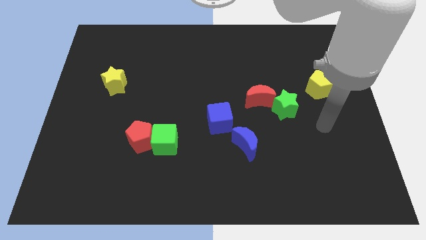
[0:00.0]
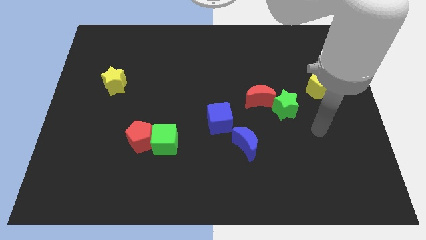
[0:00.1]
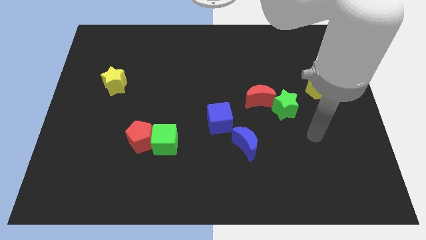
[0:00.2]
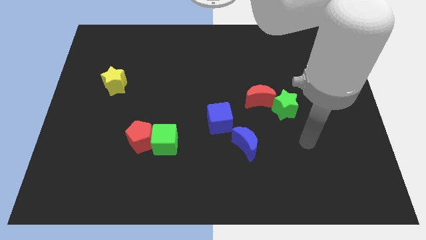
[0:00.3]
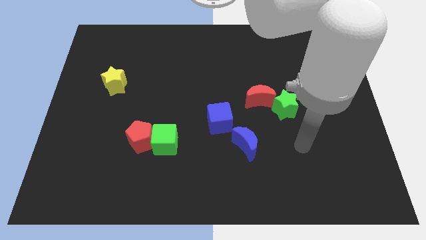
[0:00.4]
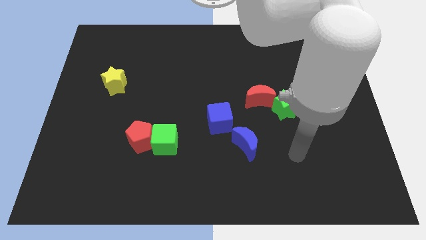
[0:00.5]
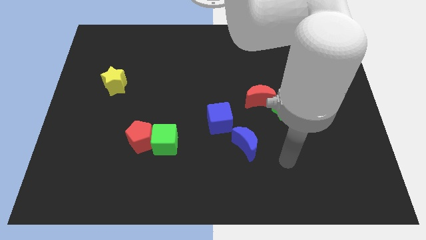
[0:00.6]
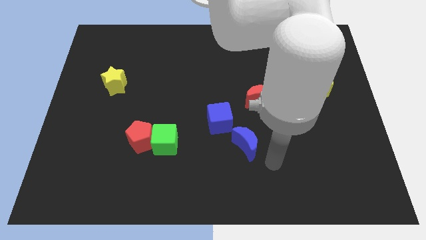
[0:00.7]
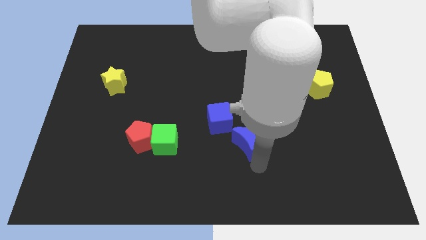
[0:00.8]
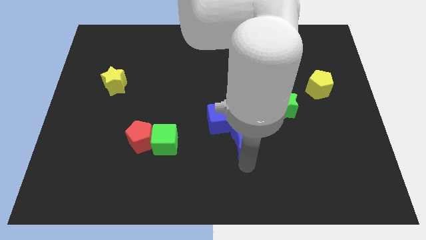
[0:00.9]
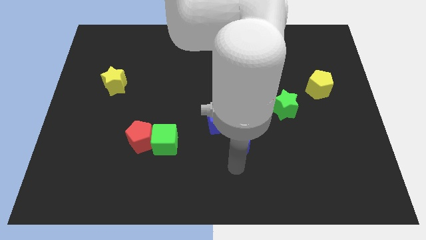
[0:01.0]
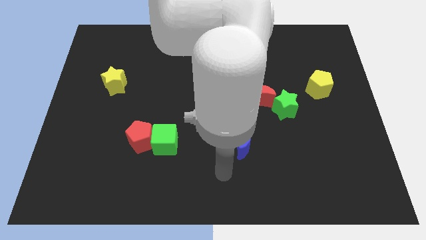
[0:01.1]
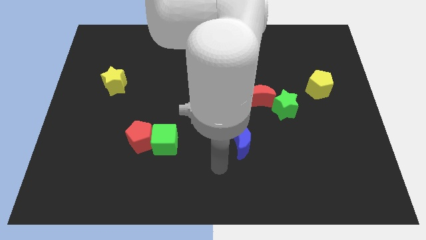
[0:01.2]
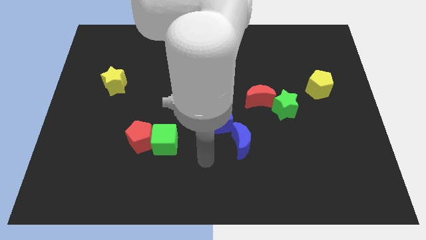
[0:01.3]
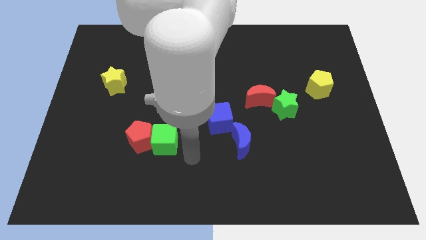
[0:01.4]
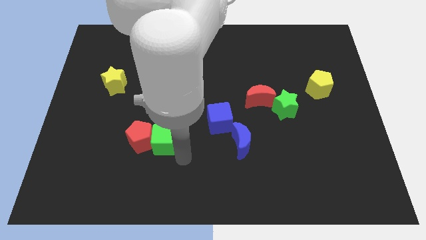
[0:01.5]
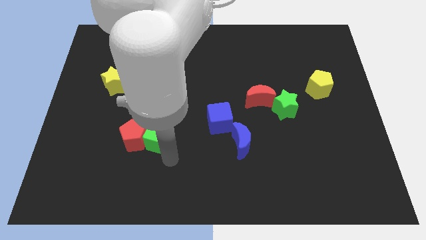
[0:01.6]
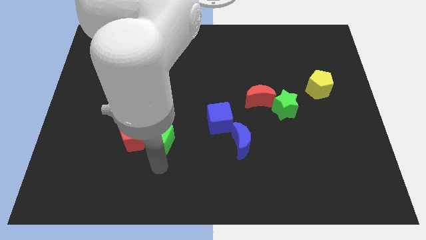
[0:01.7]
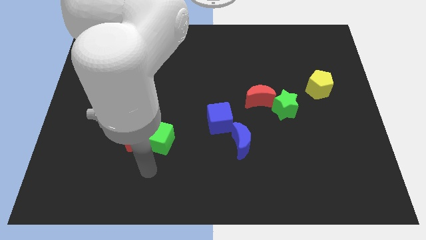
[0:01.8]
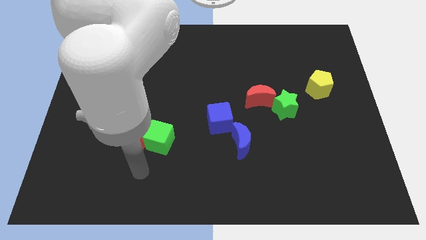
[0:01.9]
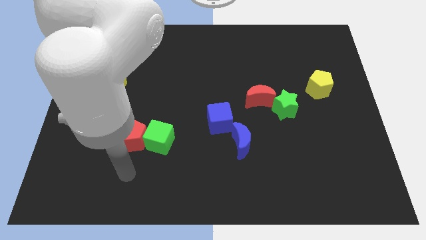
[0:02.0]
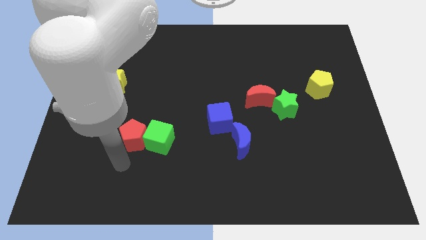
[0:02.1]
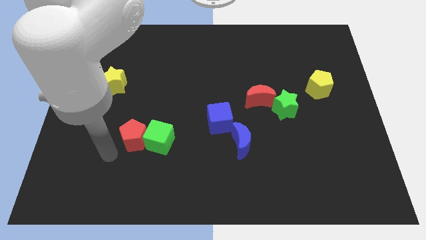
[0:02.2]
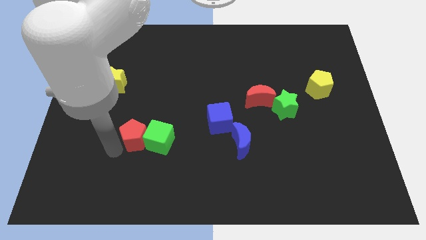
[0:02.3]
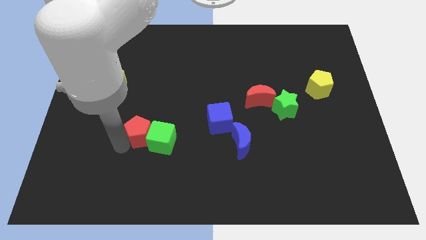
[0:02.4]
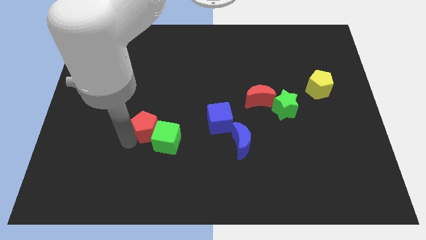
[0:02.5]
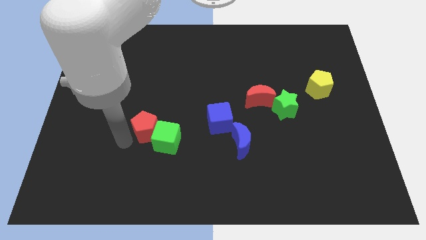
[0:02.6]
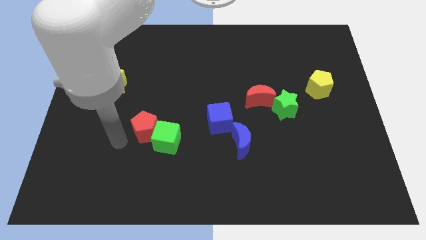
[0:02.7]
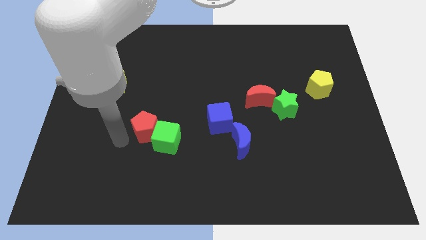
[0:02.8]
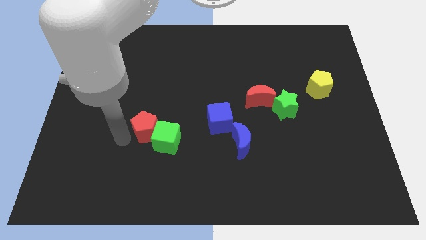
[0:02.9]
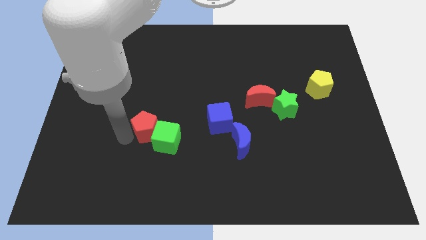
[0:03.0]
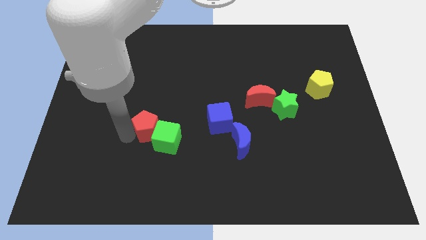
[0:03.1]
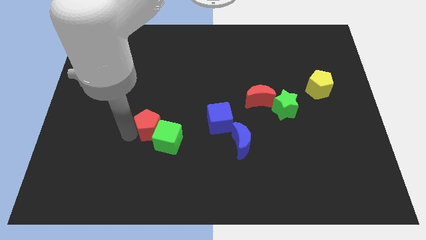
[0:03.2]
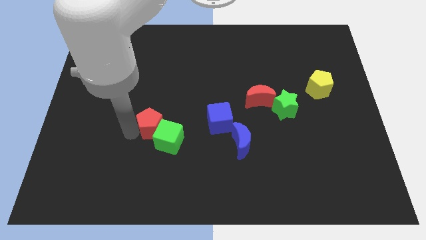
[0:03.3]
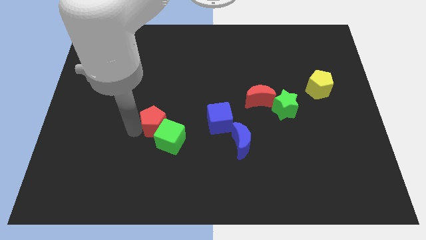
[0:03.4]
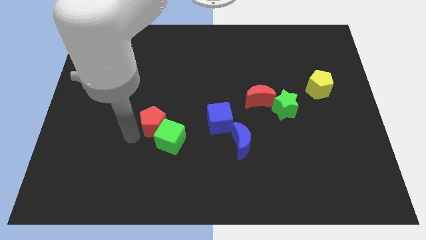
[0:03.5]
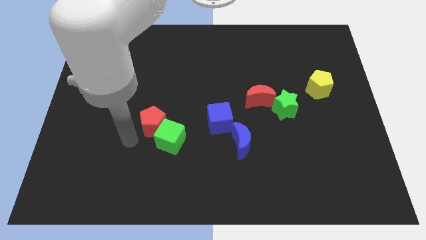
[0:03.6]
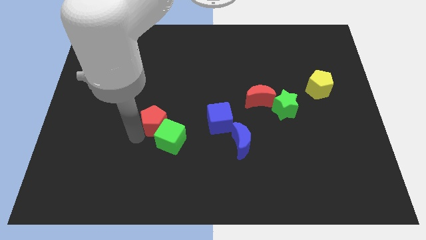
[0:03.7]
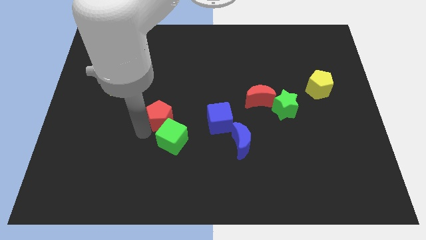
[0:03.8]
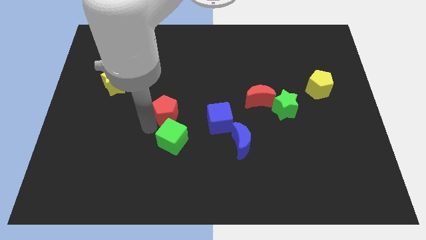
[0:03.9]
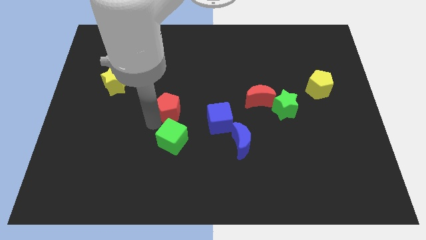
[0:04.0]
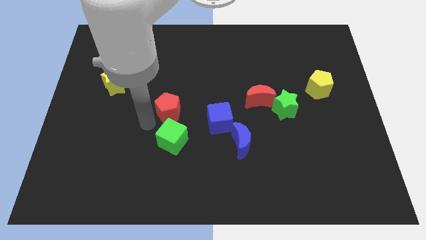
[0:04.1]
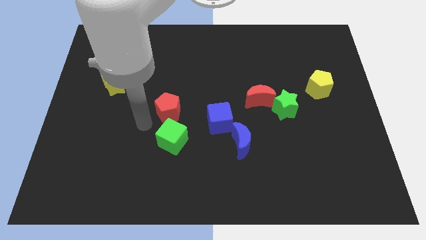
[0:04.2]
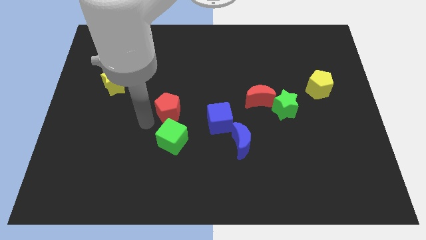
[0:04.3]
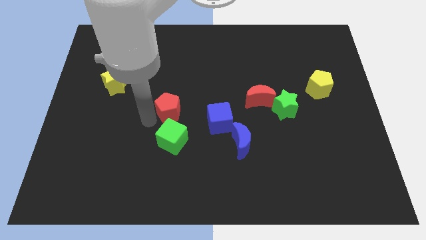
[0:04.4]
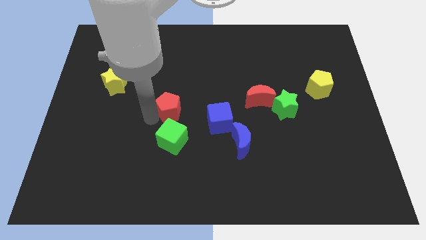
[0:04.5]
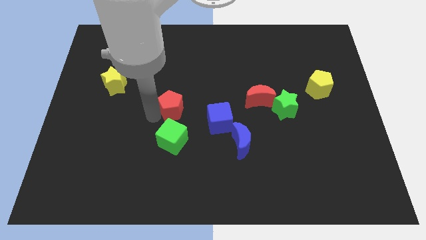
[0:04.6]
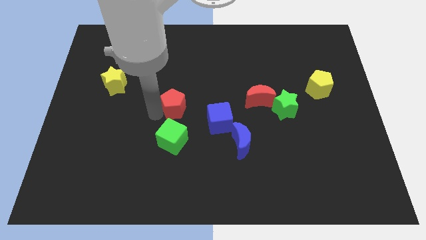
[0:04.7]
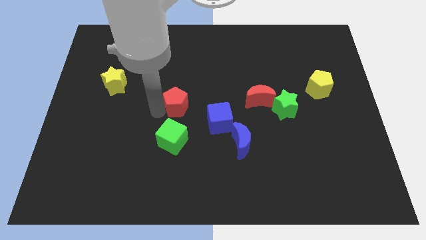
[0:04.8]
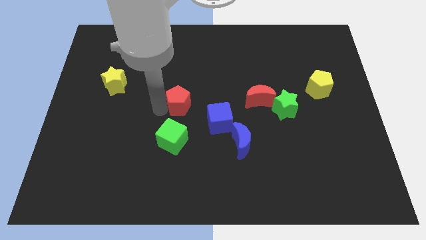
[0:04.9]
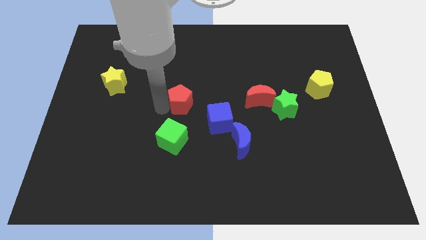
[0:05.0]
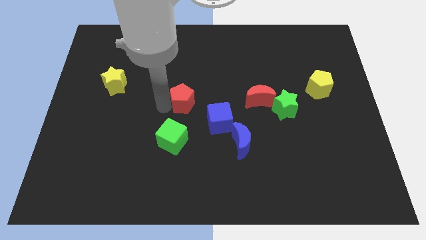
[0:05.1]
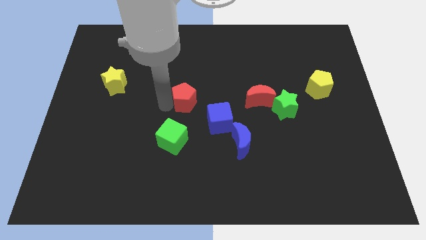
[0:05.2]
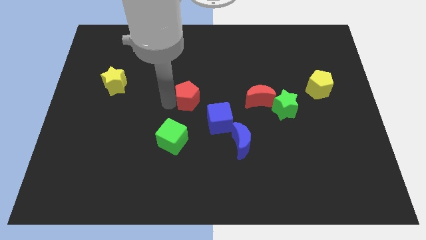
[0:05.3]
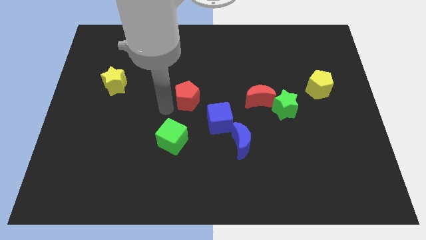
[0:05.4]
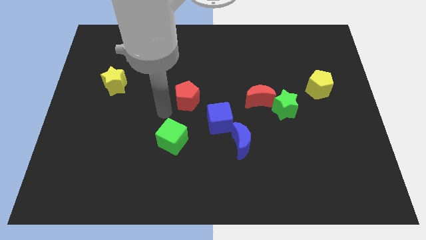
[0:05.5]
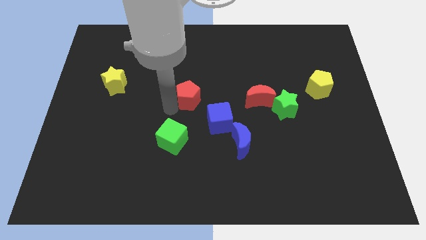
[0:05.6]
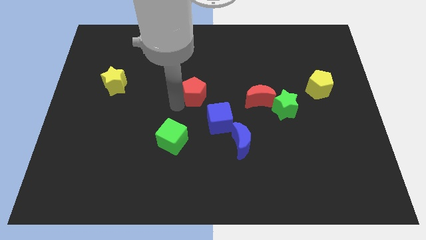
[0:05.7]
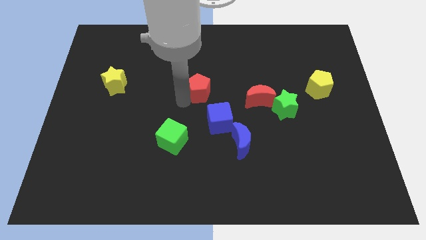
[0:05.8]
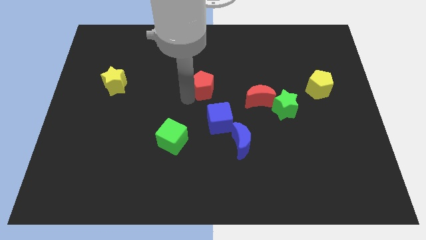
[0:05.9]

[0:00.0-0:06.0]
push the red pentagon up and to the right diagonally

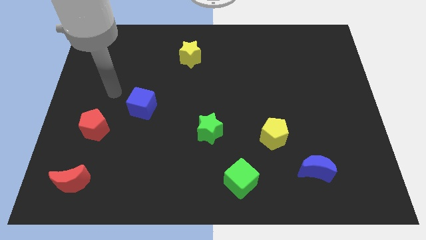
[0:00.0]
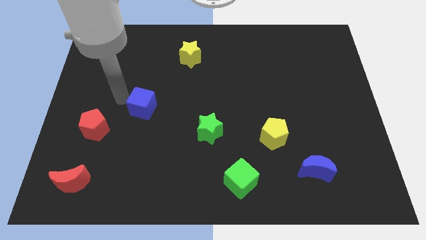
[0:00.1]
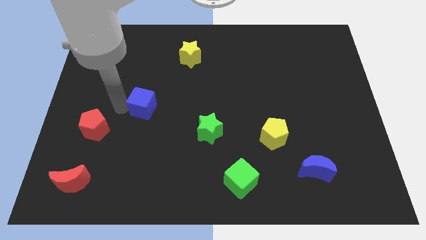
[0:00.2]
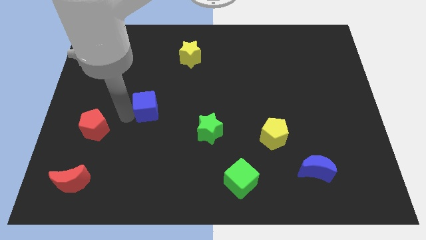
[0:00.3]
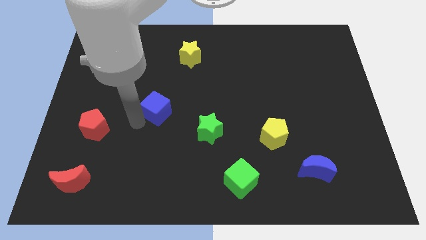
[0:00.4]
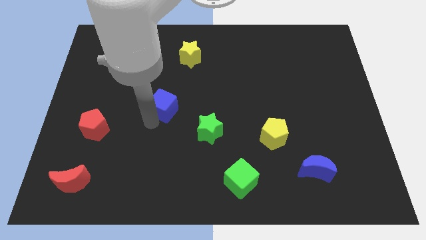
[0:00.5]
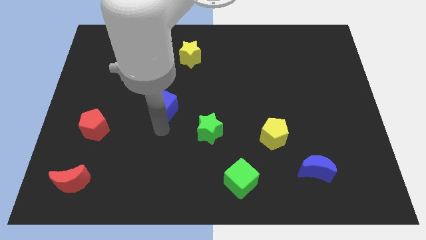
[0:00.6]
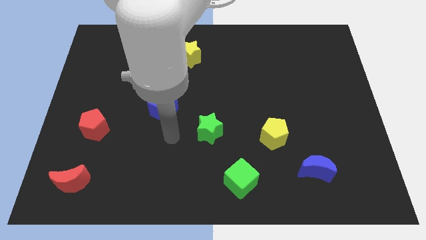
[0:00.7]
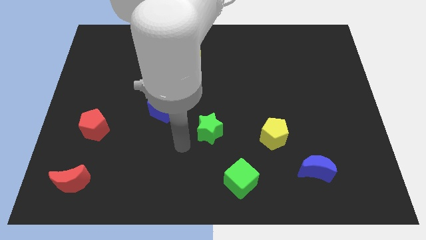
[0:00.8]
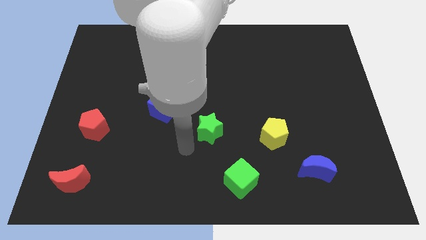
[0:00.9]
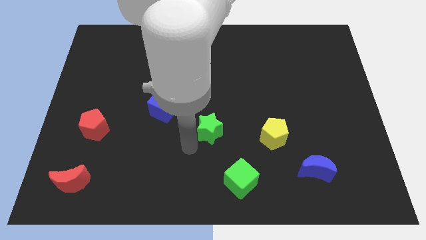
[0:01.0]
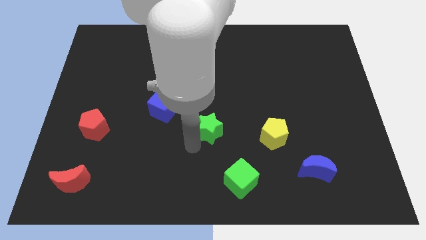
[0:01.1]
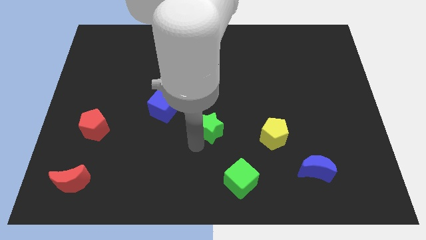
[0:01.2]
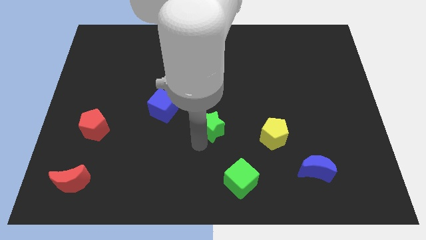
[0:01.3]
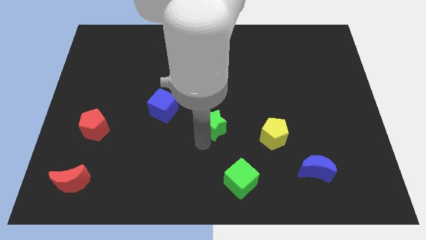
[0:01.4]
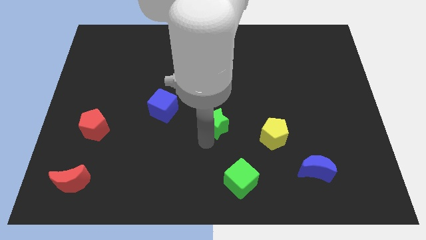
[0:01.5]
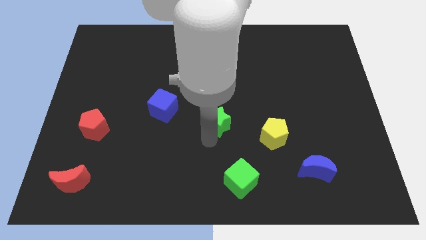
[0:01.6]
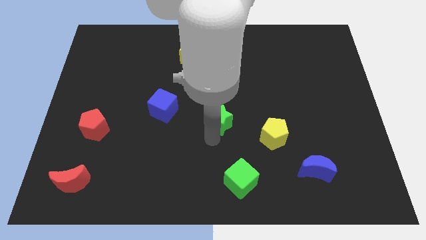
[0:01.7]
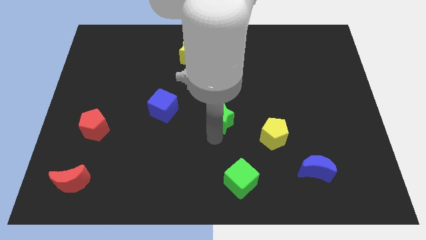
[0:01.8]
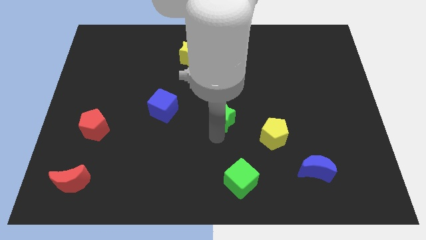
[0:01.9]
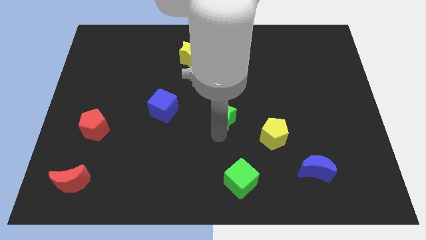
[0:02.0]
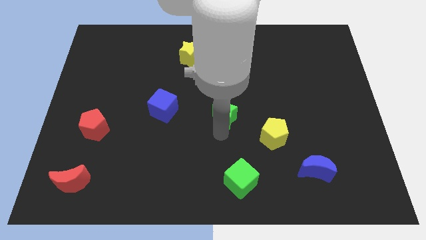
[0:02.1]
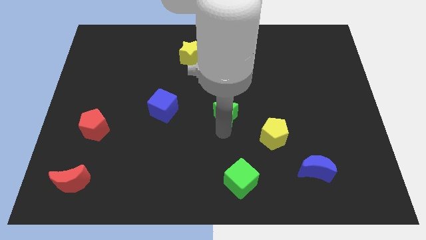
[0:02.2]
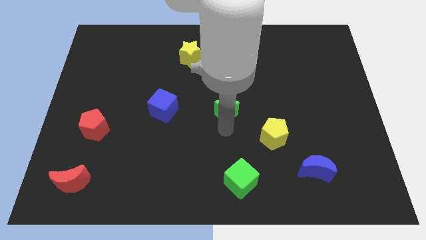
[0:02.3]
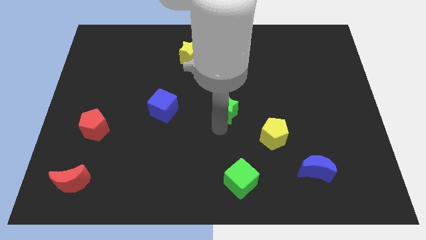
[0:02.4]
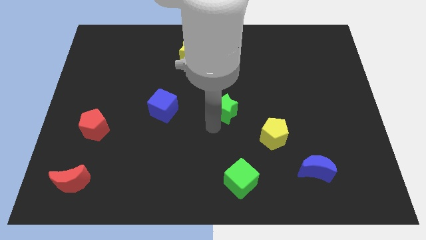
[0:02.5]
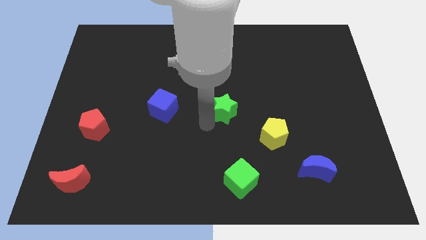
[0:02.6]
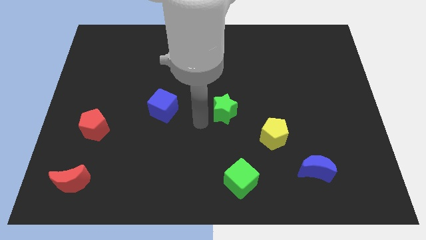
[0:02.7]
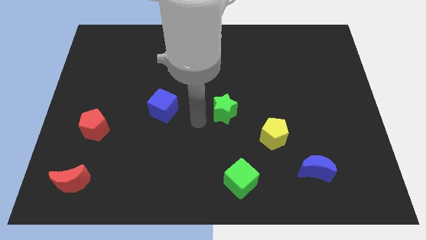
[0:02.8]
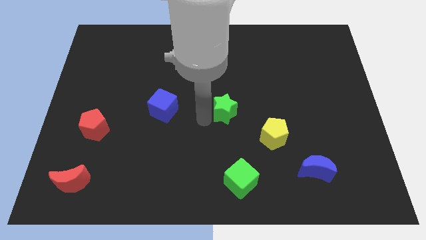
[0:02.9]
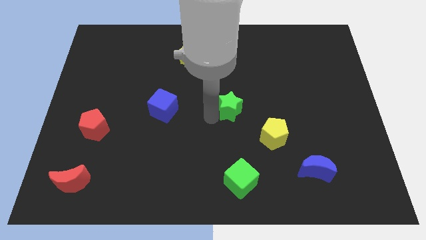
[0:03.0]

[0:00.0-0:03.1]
move the green star upwards and right diagonally slightly
